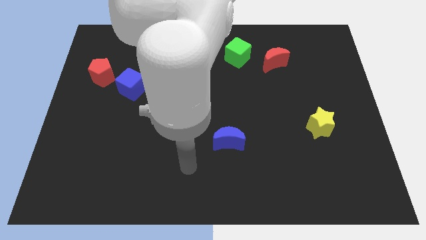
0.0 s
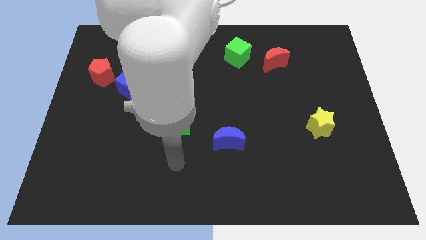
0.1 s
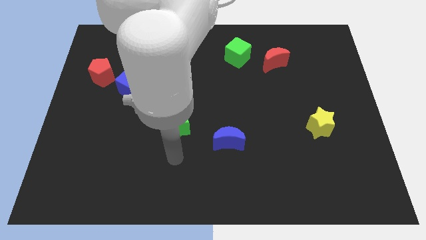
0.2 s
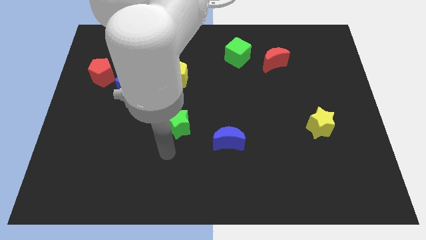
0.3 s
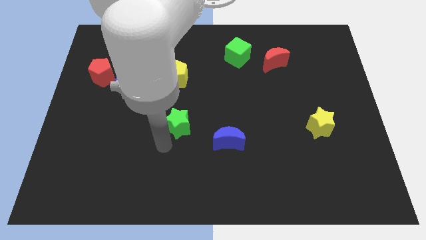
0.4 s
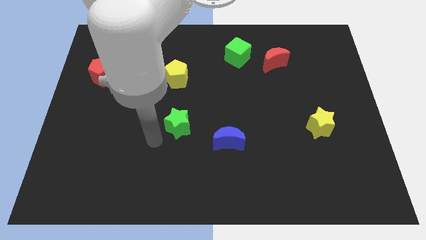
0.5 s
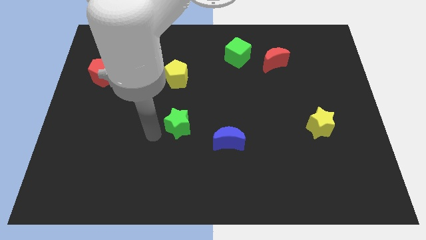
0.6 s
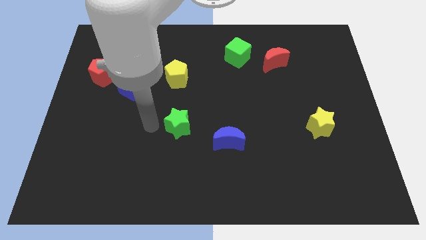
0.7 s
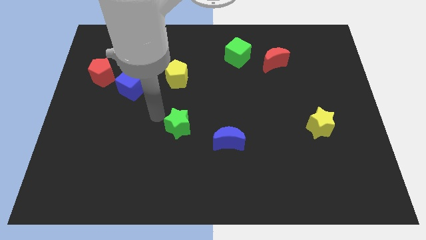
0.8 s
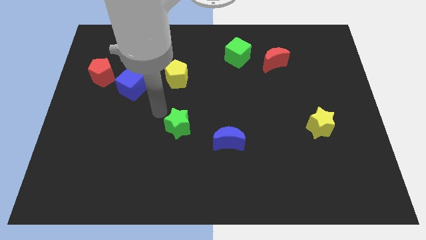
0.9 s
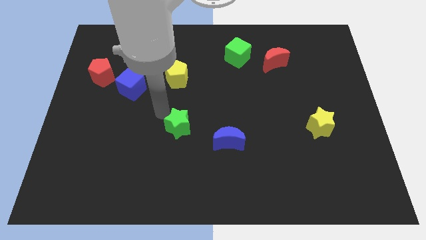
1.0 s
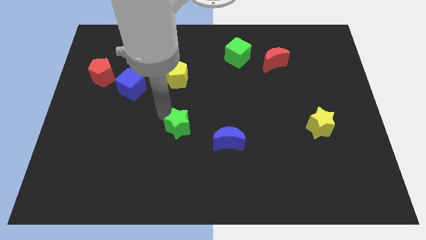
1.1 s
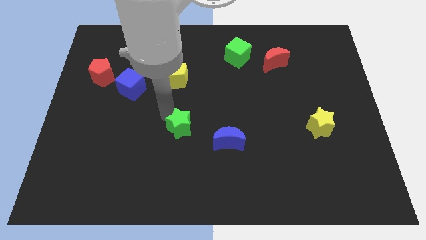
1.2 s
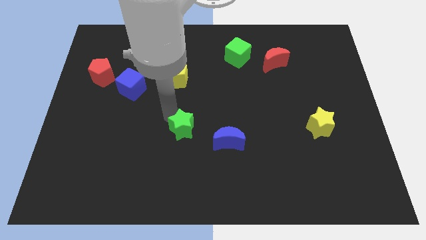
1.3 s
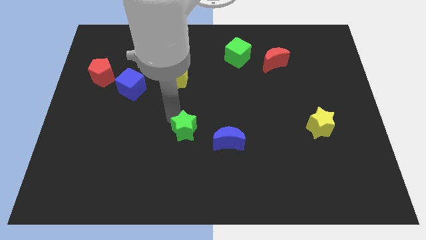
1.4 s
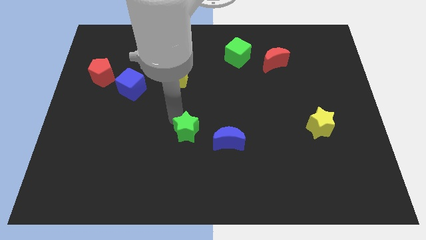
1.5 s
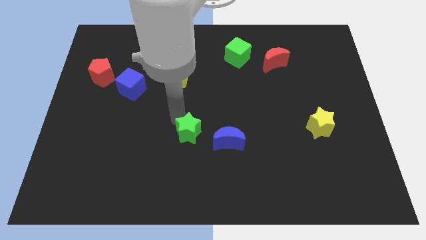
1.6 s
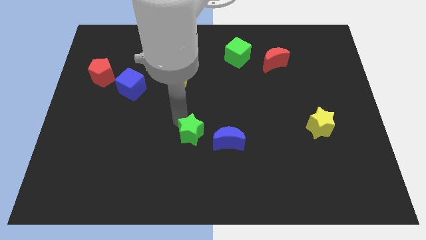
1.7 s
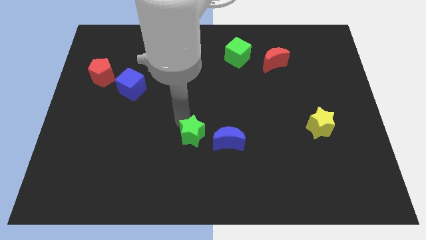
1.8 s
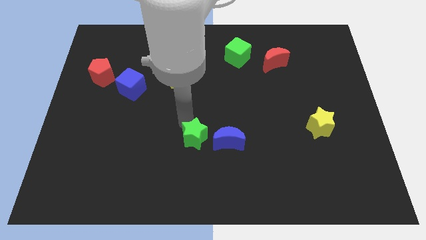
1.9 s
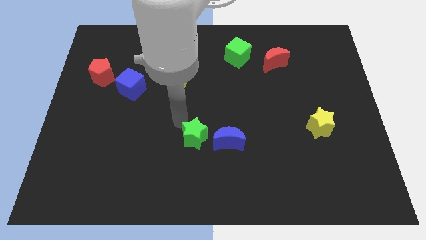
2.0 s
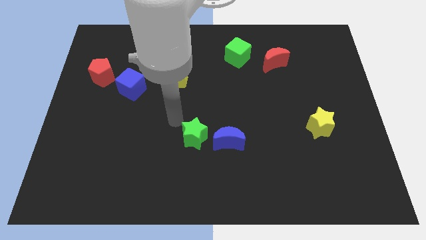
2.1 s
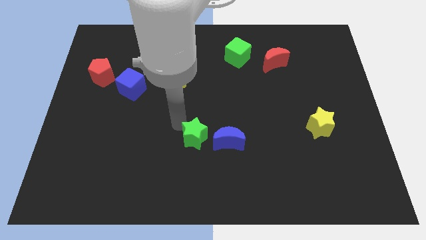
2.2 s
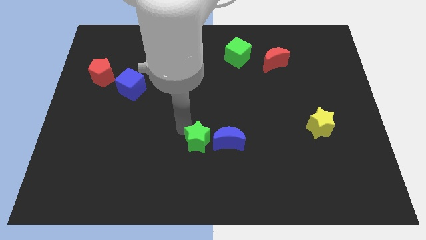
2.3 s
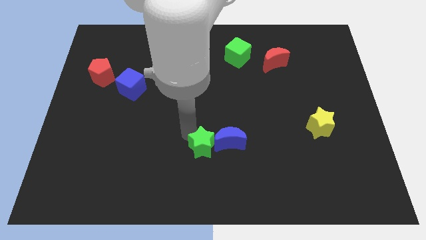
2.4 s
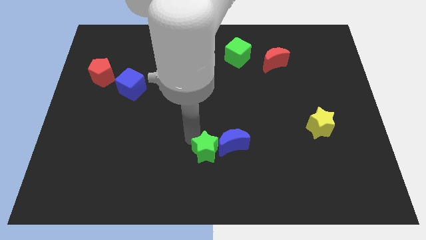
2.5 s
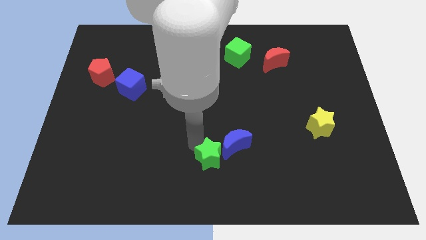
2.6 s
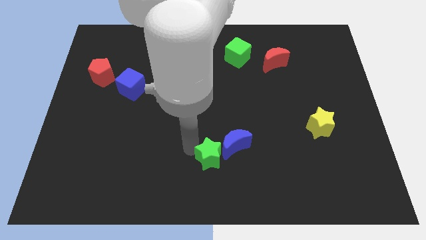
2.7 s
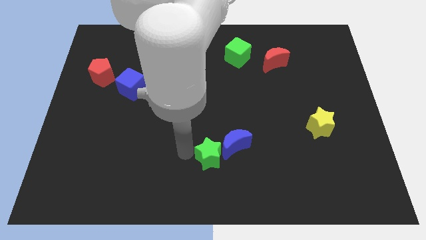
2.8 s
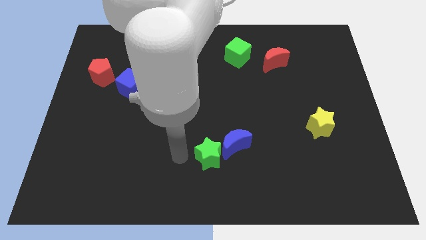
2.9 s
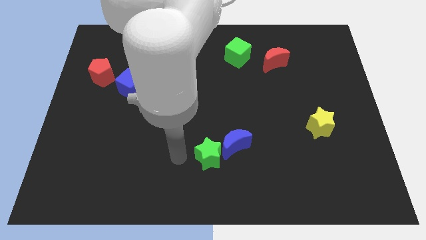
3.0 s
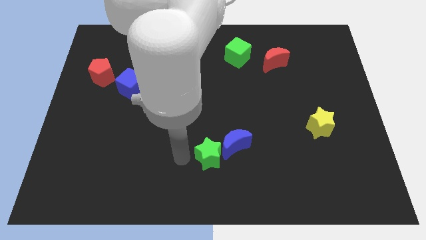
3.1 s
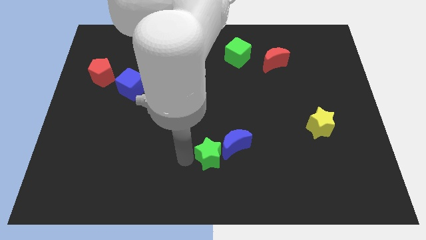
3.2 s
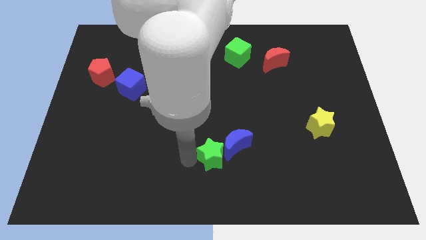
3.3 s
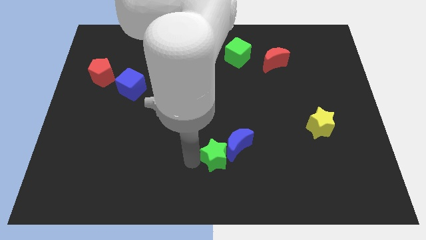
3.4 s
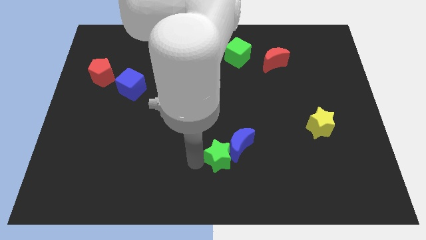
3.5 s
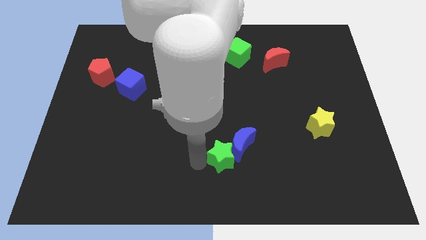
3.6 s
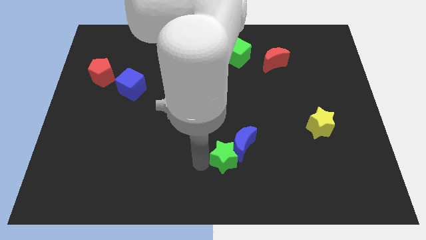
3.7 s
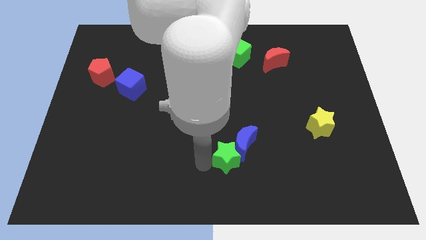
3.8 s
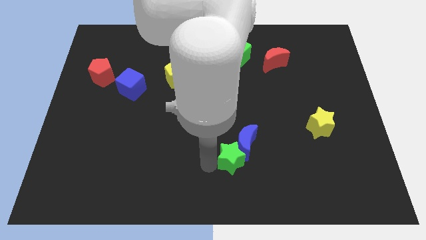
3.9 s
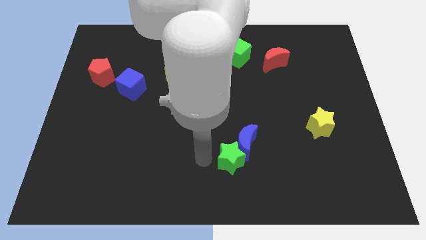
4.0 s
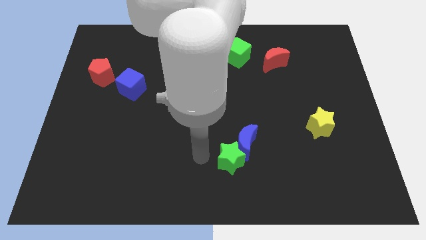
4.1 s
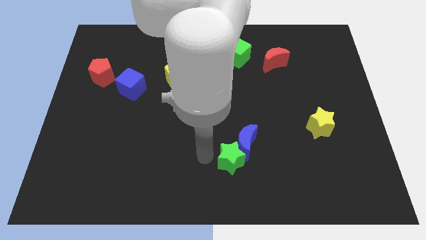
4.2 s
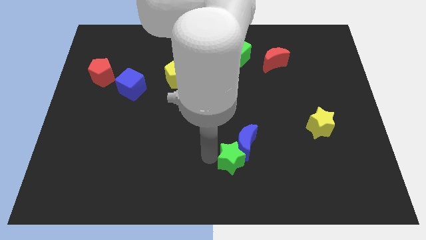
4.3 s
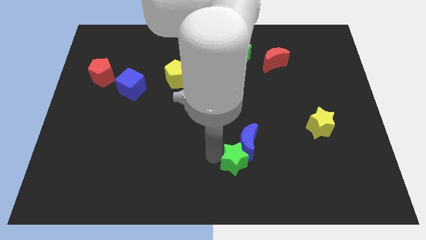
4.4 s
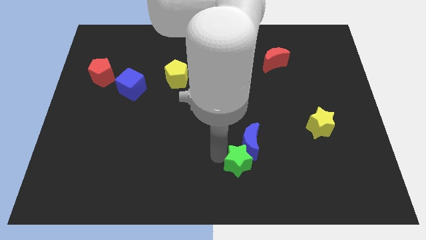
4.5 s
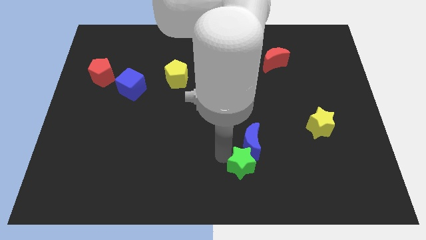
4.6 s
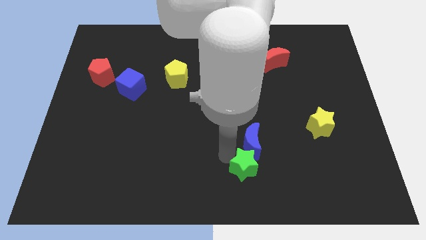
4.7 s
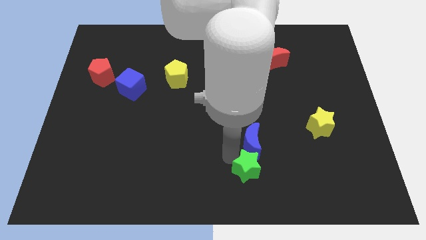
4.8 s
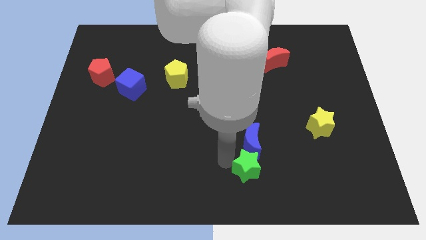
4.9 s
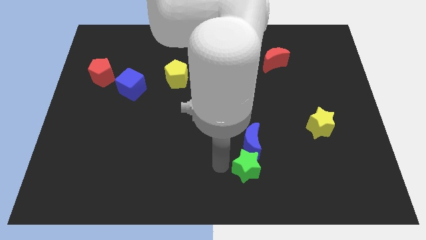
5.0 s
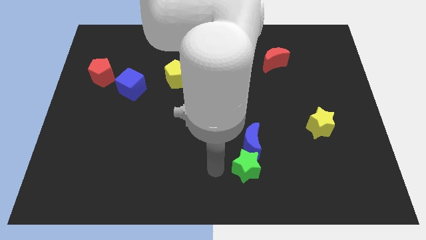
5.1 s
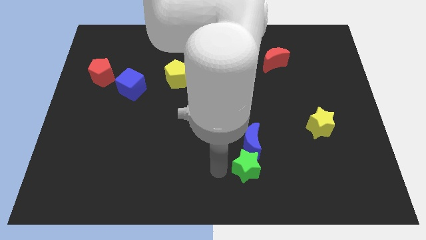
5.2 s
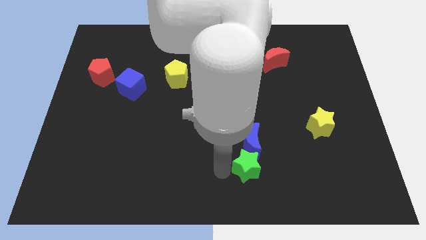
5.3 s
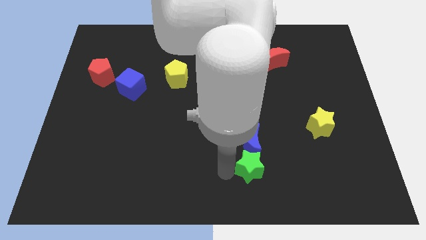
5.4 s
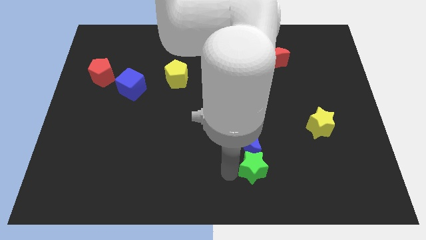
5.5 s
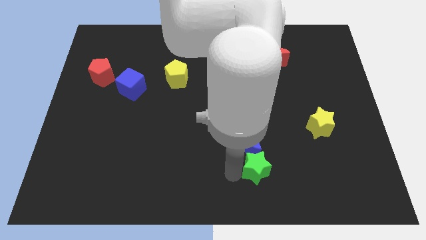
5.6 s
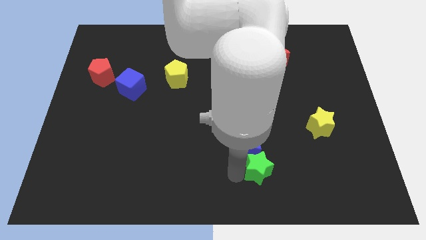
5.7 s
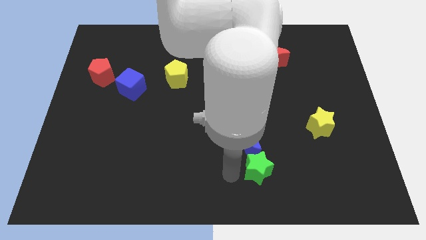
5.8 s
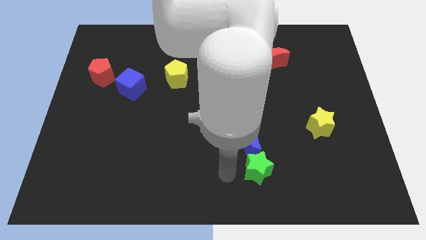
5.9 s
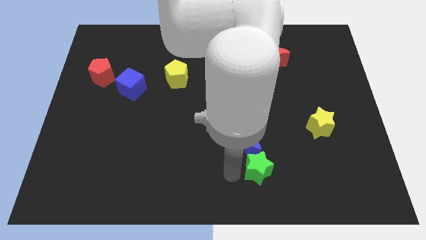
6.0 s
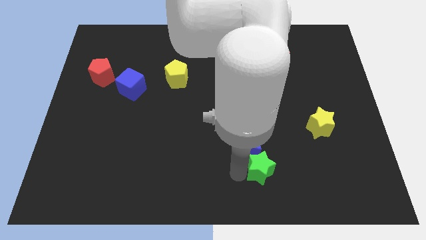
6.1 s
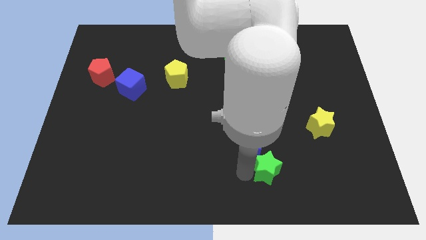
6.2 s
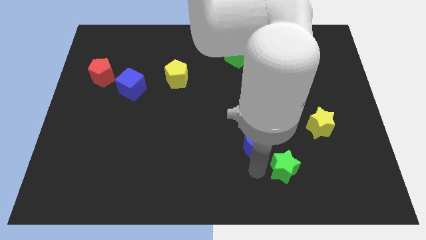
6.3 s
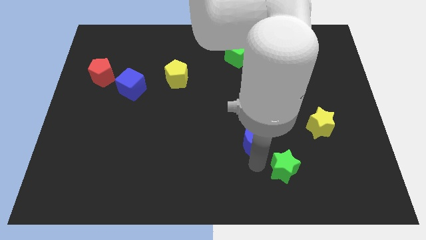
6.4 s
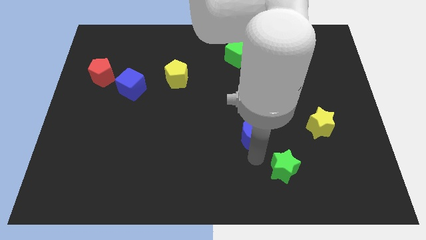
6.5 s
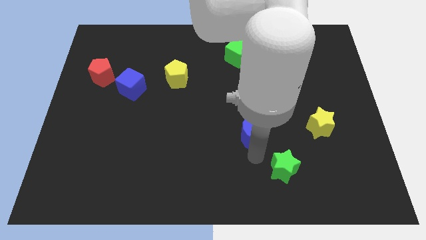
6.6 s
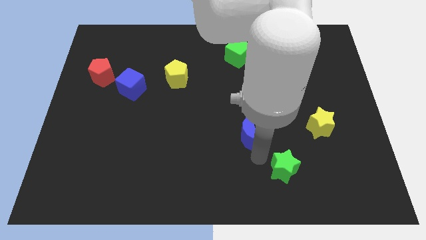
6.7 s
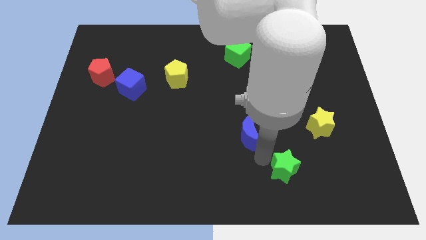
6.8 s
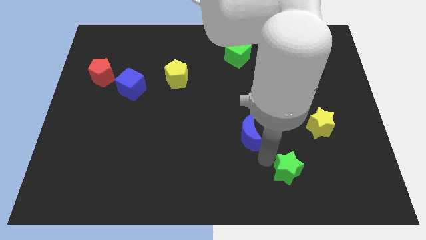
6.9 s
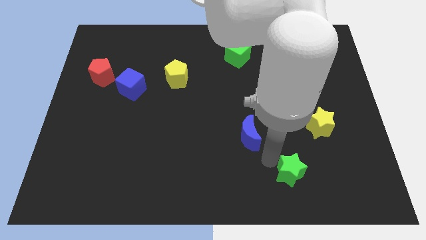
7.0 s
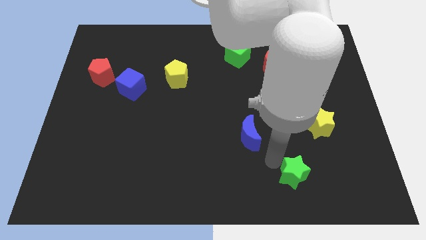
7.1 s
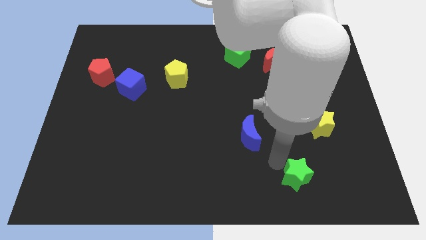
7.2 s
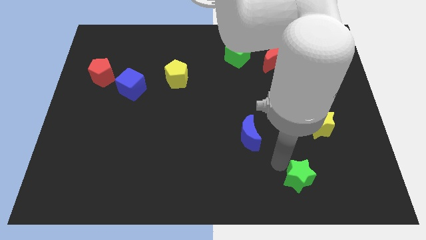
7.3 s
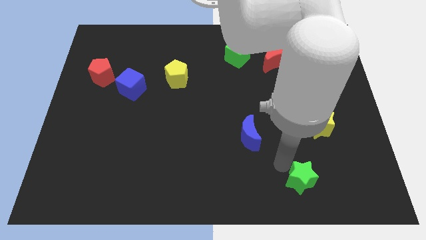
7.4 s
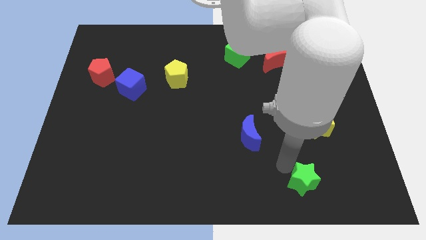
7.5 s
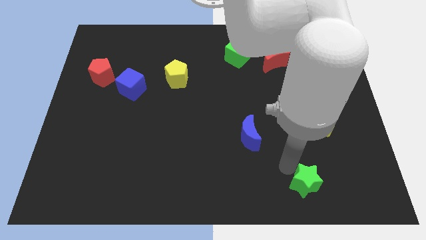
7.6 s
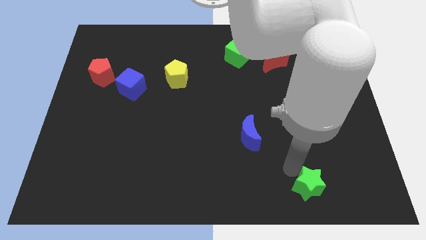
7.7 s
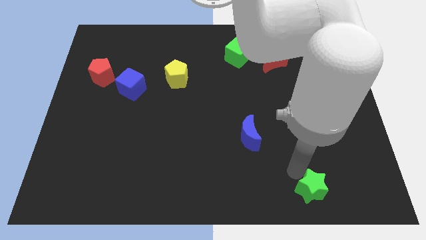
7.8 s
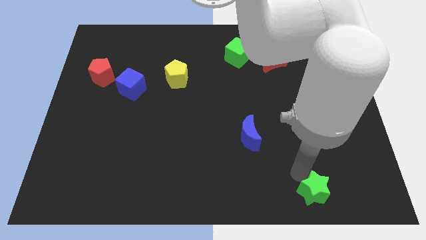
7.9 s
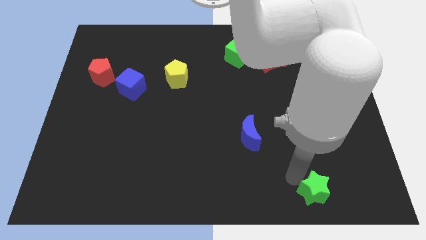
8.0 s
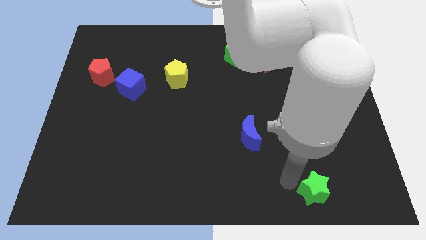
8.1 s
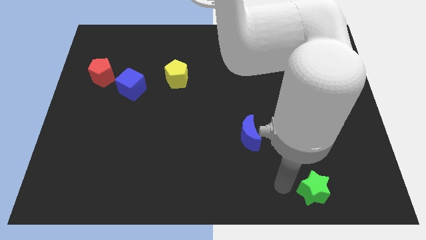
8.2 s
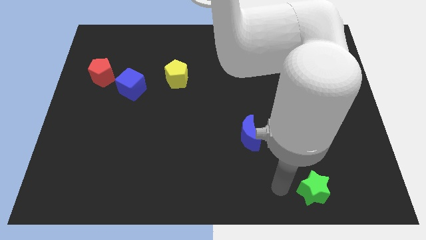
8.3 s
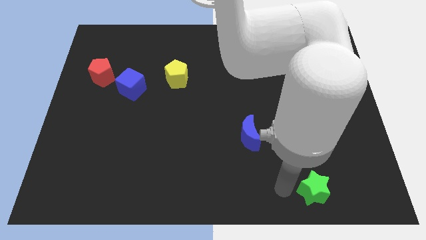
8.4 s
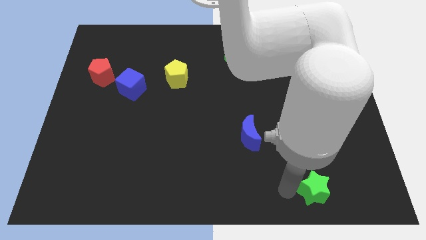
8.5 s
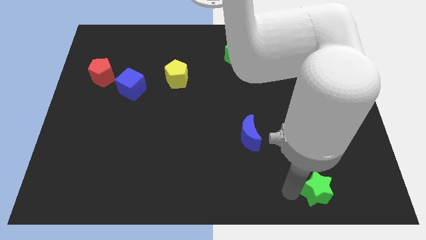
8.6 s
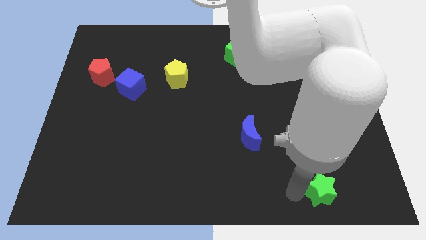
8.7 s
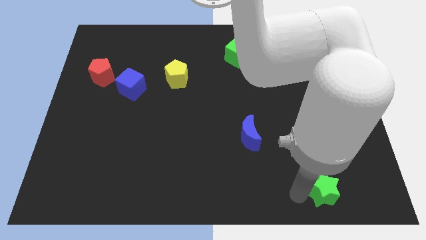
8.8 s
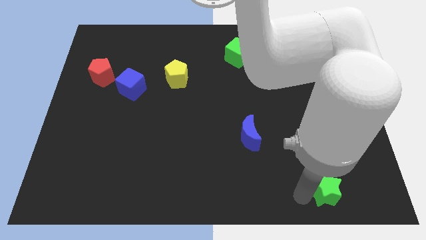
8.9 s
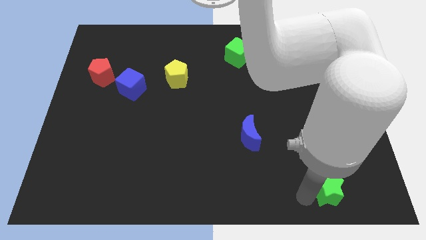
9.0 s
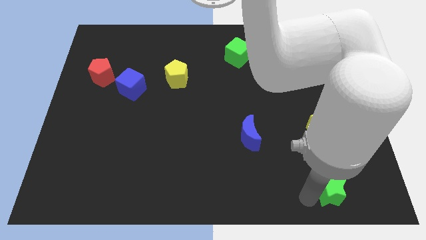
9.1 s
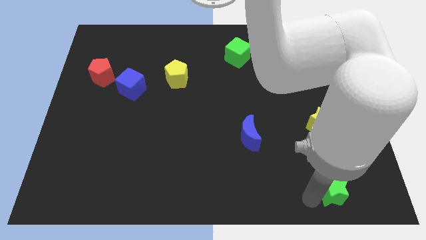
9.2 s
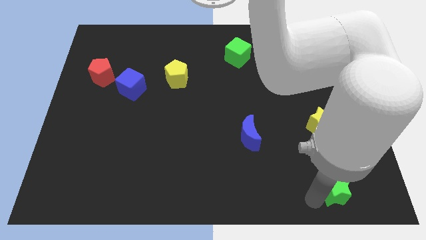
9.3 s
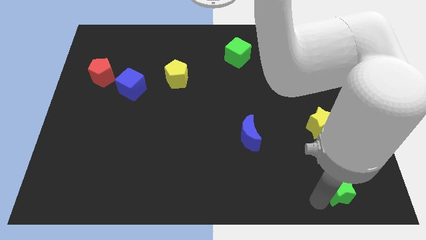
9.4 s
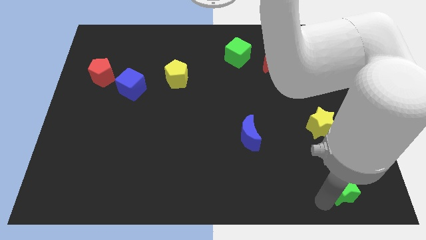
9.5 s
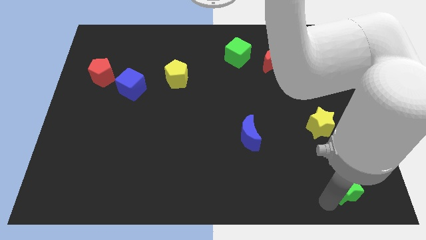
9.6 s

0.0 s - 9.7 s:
push the green star to the bottom right of the board
